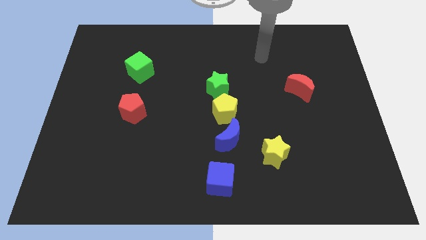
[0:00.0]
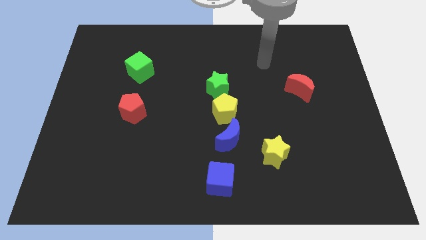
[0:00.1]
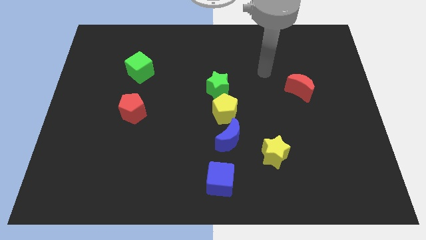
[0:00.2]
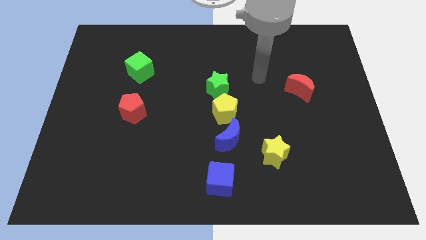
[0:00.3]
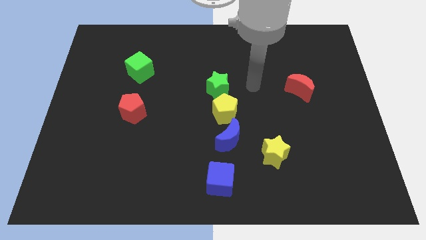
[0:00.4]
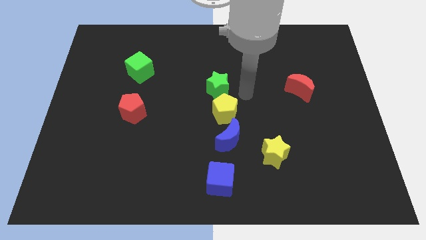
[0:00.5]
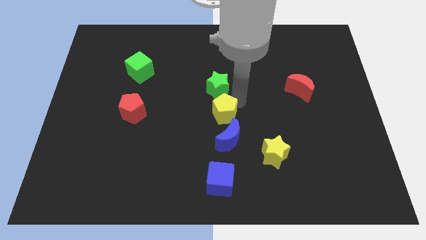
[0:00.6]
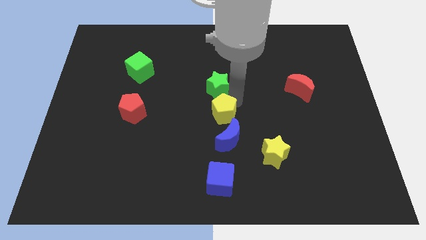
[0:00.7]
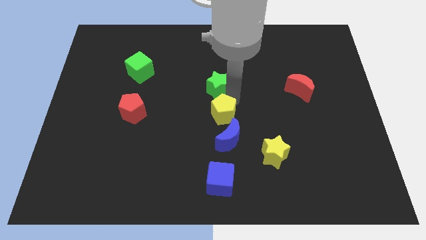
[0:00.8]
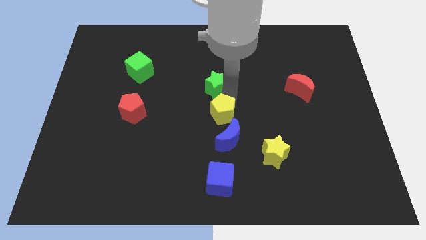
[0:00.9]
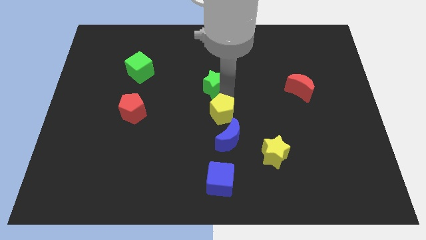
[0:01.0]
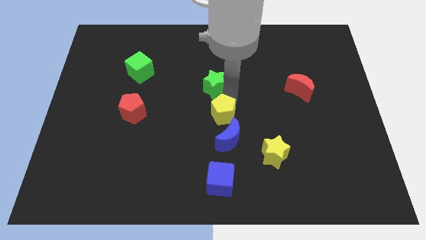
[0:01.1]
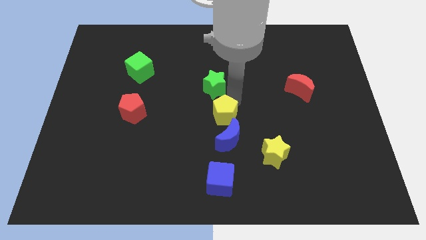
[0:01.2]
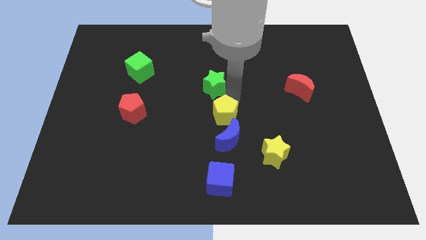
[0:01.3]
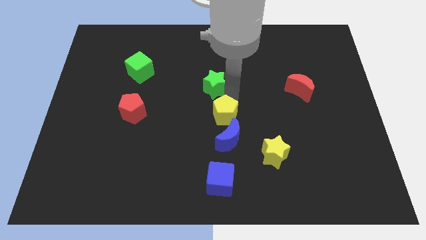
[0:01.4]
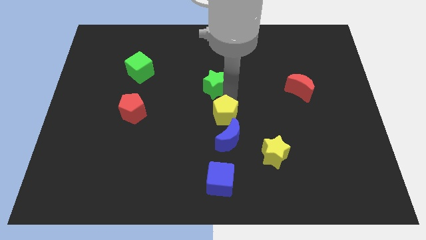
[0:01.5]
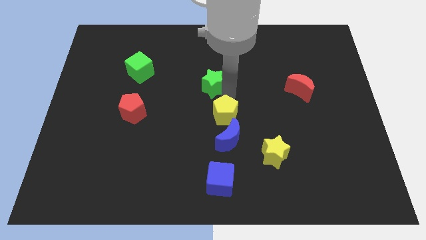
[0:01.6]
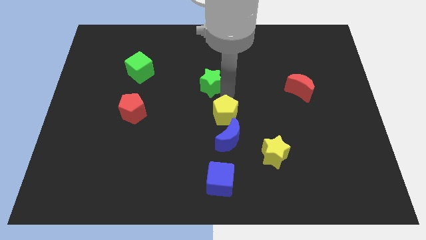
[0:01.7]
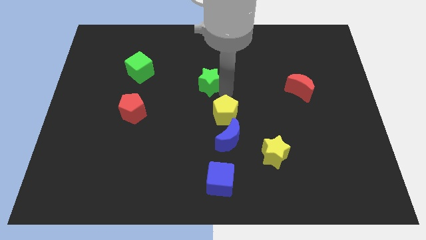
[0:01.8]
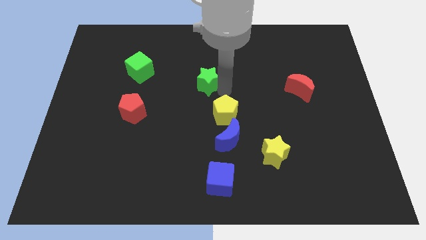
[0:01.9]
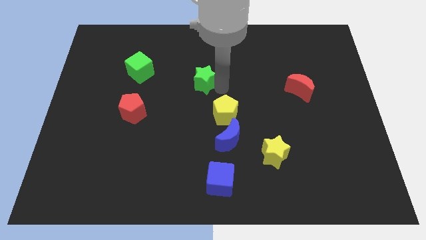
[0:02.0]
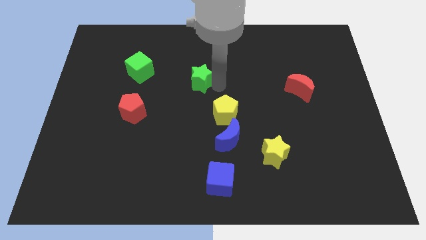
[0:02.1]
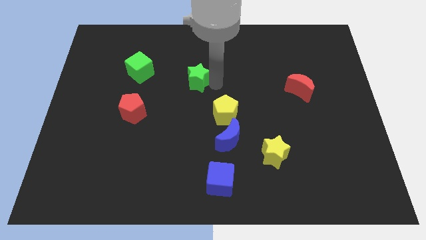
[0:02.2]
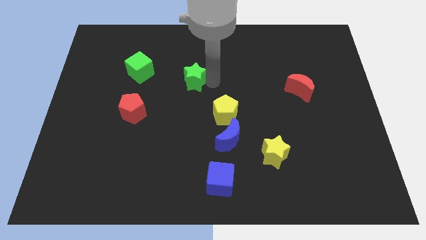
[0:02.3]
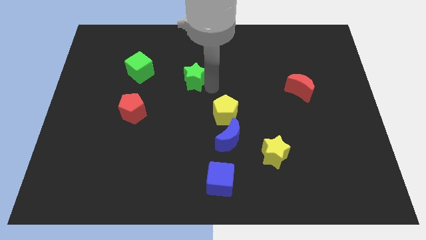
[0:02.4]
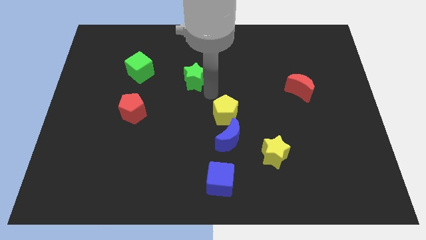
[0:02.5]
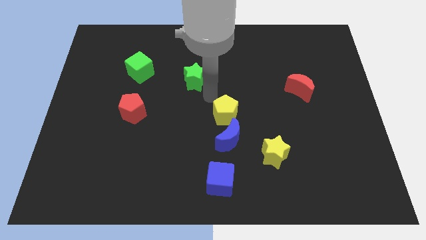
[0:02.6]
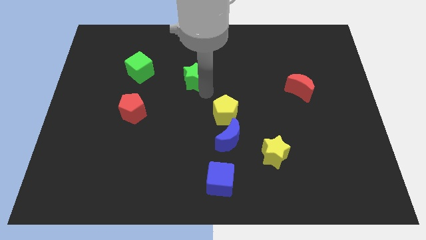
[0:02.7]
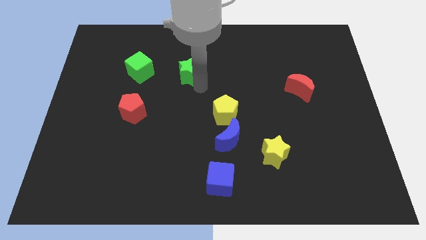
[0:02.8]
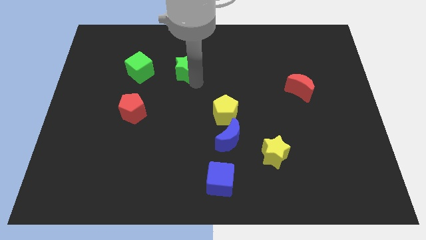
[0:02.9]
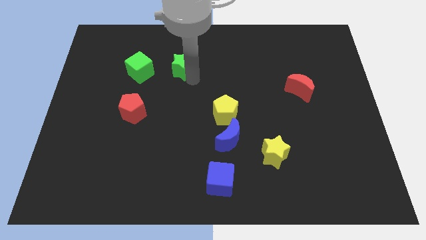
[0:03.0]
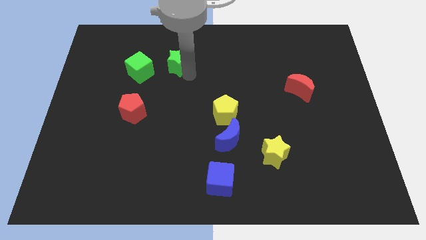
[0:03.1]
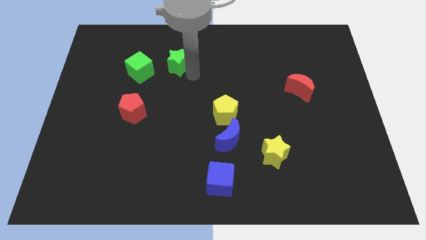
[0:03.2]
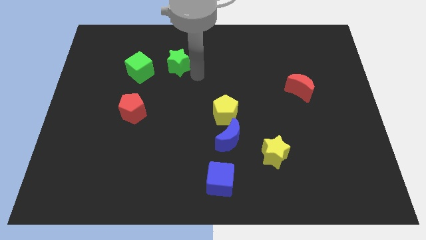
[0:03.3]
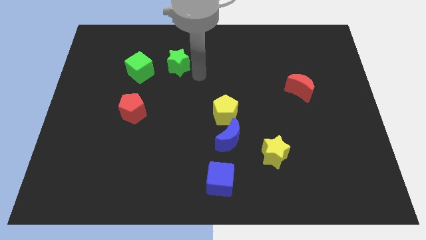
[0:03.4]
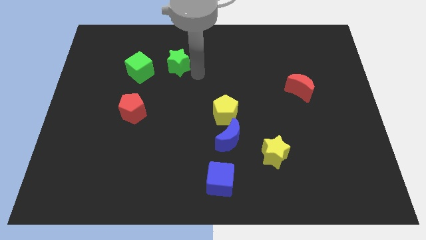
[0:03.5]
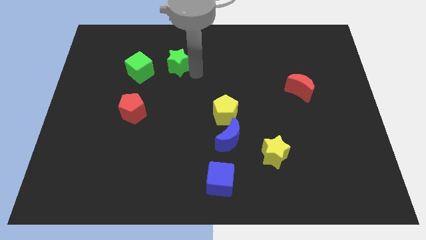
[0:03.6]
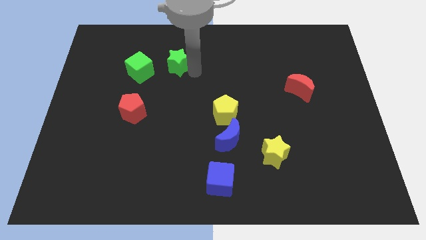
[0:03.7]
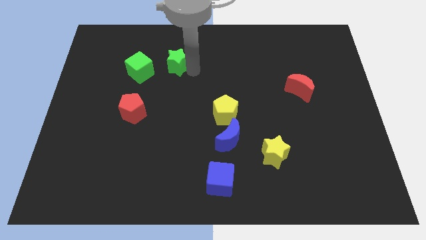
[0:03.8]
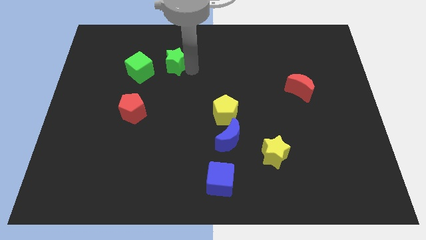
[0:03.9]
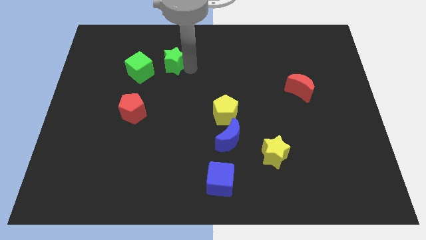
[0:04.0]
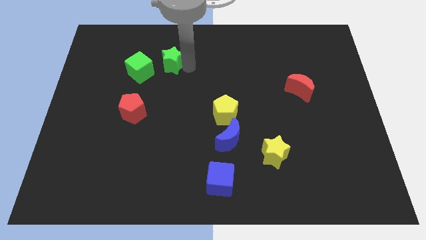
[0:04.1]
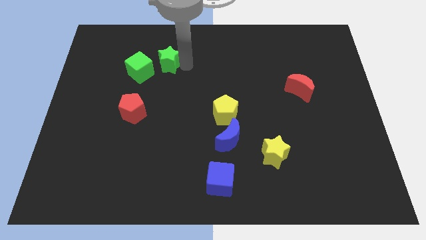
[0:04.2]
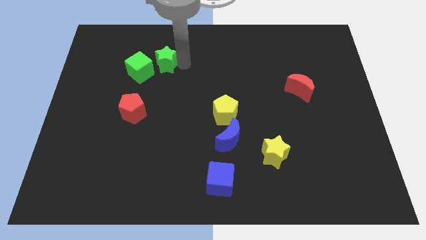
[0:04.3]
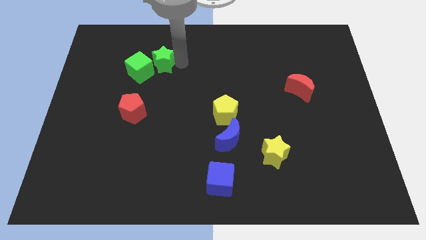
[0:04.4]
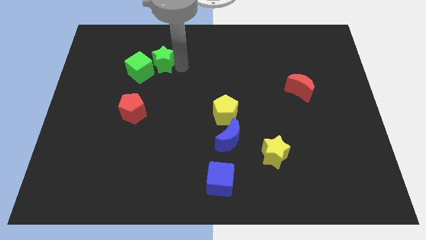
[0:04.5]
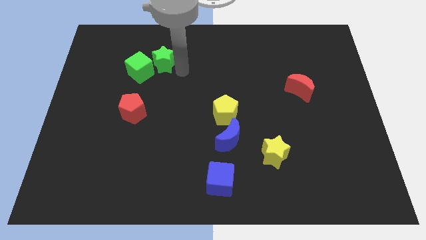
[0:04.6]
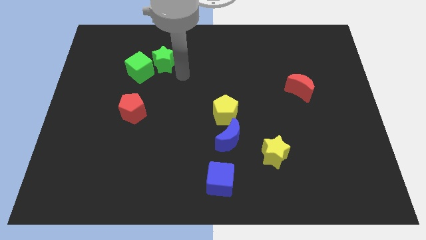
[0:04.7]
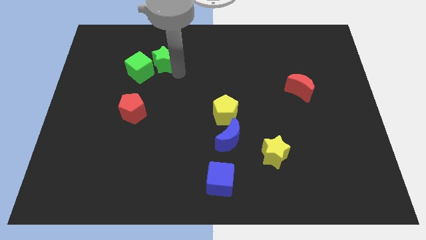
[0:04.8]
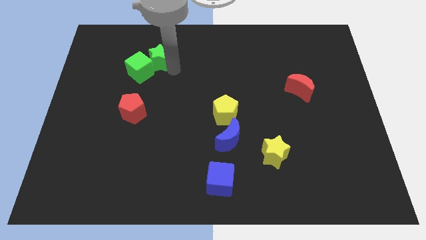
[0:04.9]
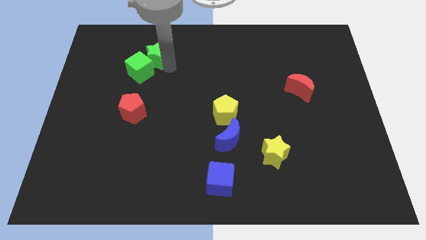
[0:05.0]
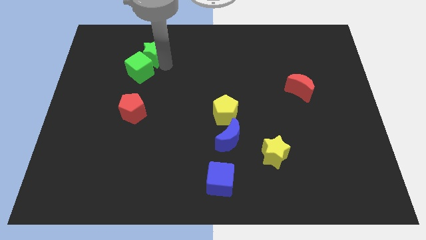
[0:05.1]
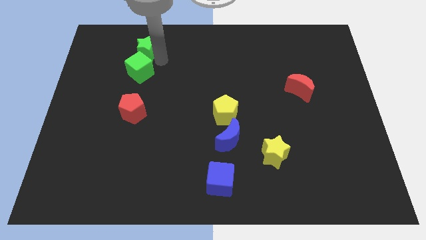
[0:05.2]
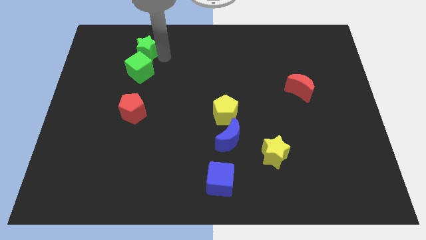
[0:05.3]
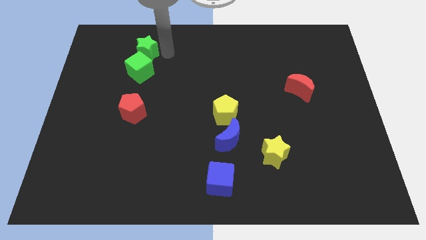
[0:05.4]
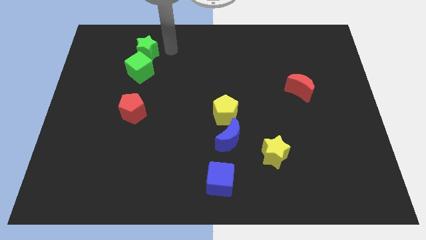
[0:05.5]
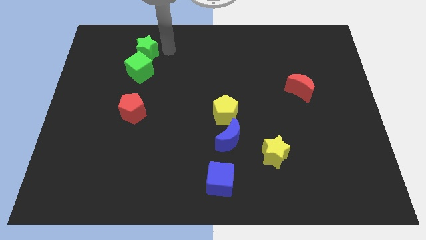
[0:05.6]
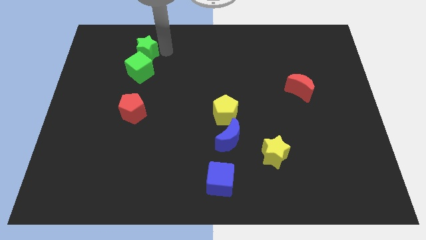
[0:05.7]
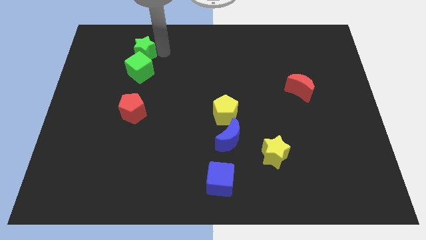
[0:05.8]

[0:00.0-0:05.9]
push the green star to the top left of the green cube

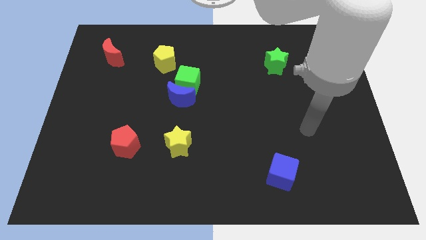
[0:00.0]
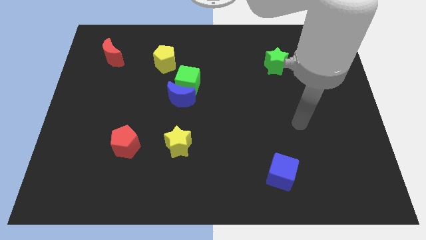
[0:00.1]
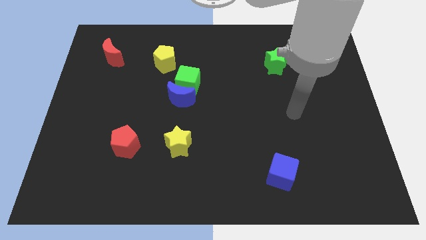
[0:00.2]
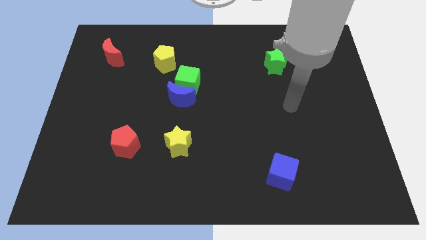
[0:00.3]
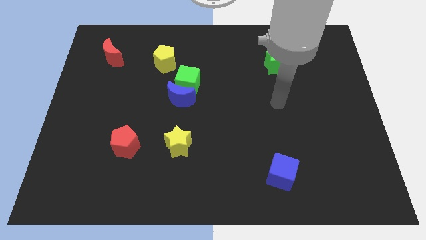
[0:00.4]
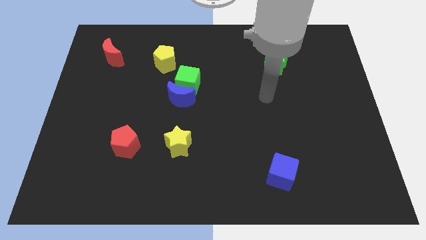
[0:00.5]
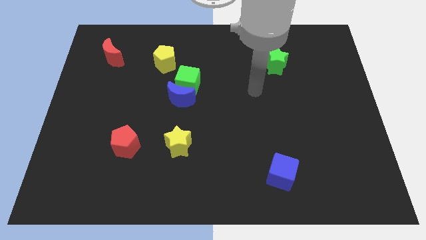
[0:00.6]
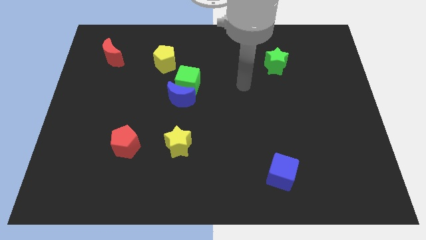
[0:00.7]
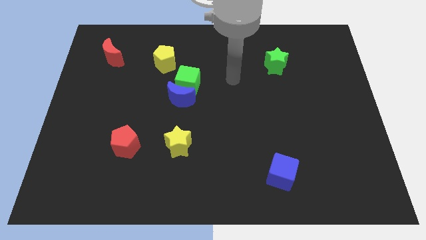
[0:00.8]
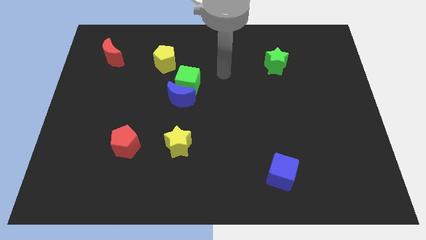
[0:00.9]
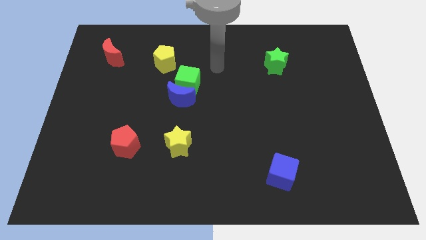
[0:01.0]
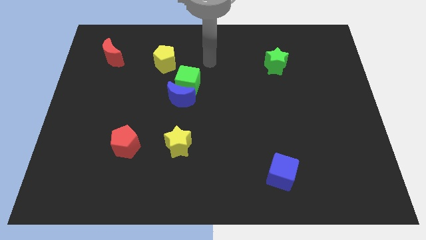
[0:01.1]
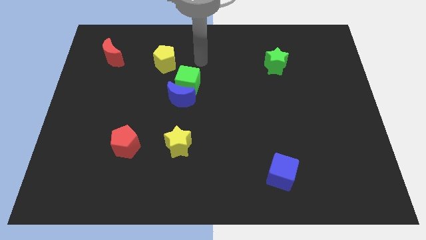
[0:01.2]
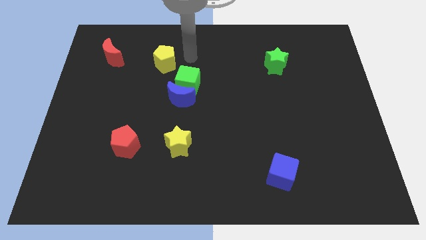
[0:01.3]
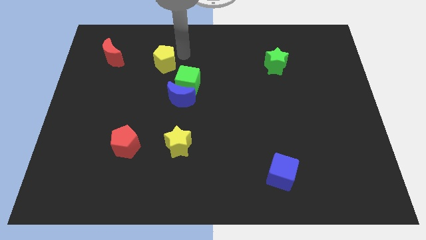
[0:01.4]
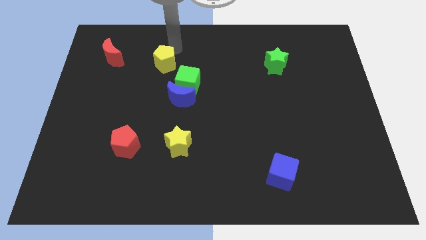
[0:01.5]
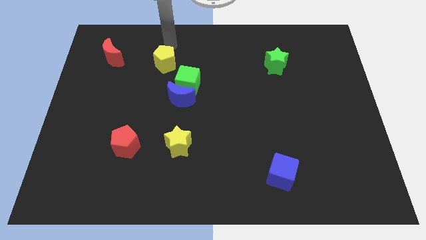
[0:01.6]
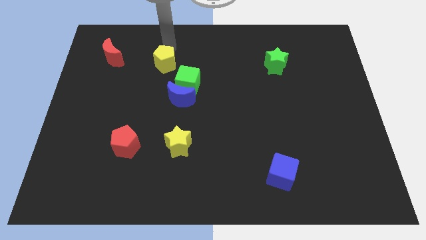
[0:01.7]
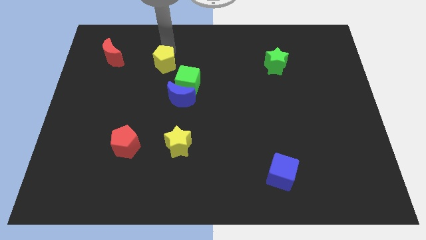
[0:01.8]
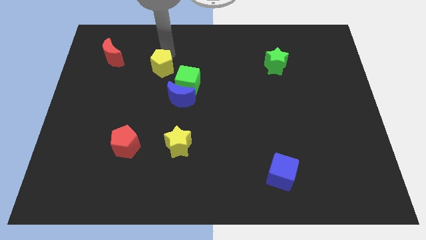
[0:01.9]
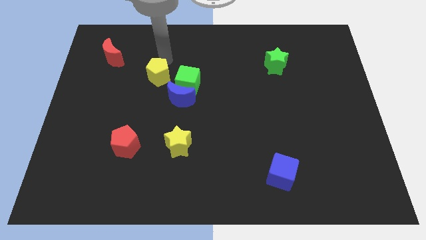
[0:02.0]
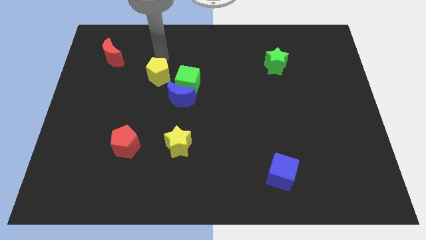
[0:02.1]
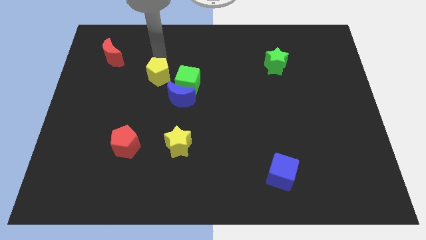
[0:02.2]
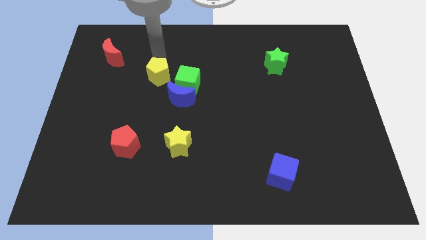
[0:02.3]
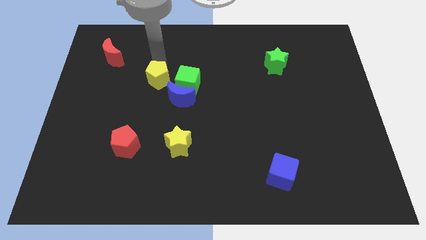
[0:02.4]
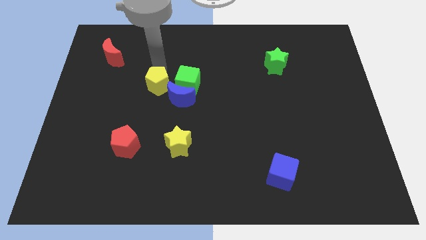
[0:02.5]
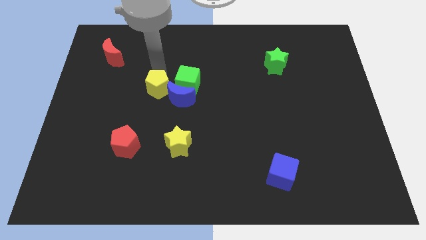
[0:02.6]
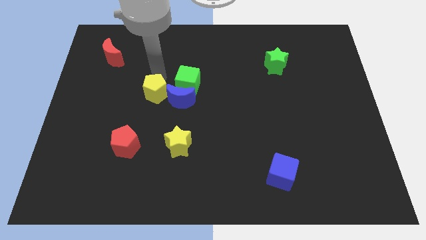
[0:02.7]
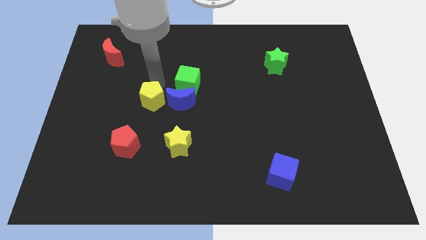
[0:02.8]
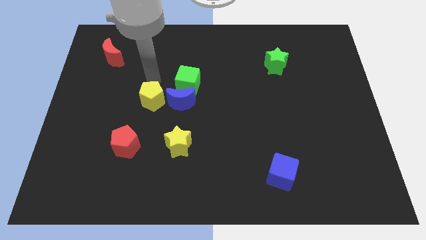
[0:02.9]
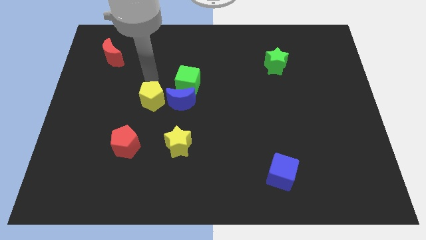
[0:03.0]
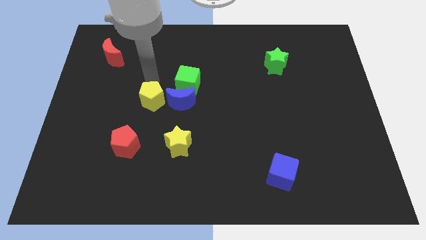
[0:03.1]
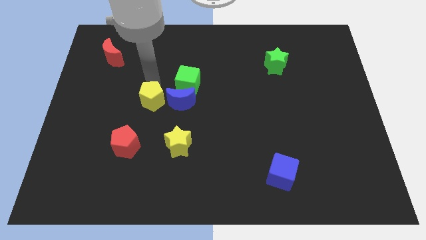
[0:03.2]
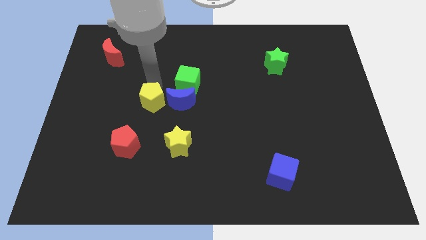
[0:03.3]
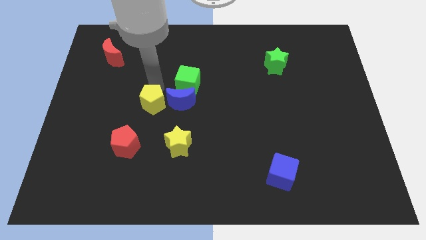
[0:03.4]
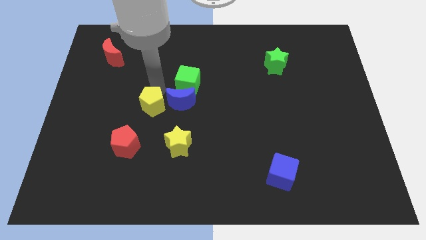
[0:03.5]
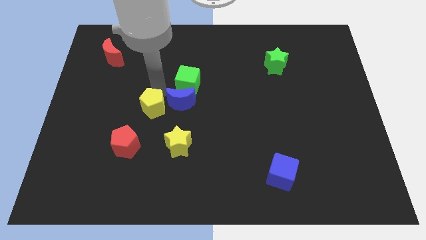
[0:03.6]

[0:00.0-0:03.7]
slide the yellow pentagon to the top left of the yellow star
